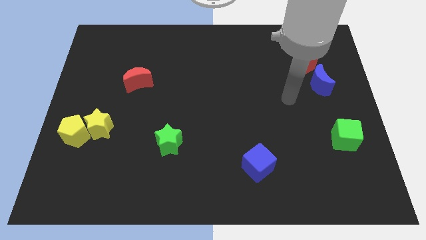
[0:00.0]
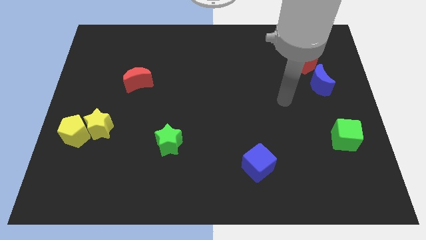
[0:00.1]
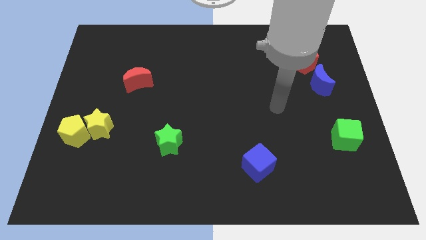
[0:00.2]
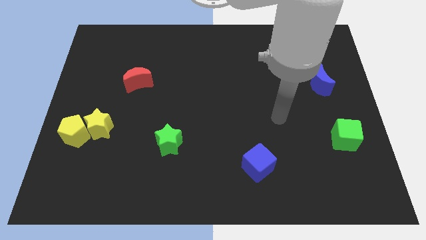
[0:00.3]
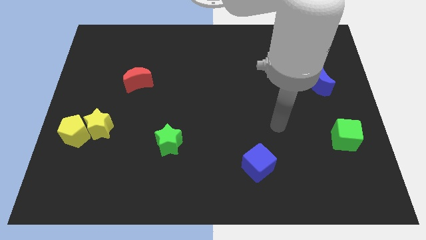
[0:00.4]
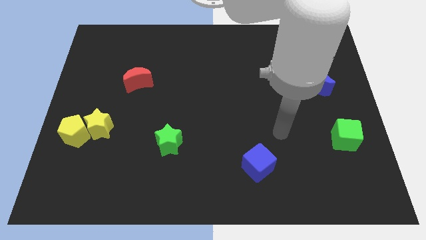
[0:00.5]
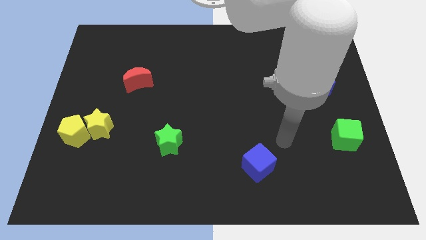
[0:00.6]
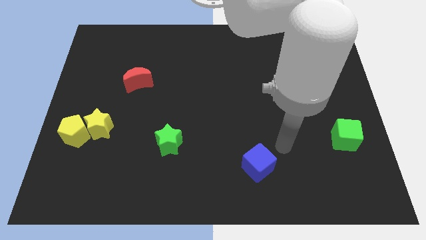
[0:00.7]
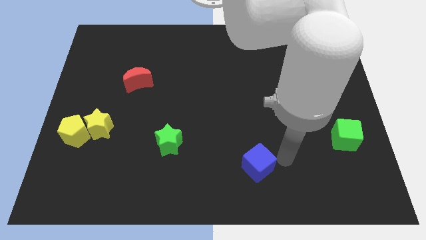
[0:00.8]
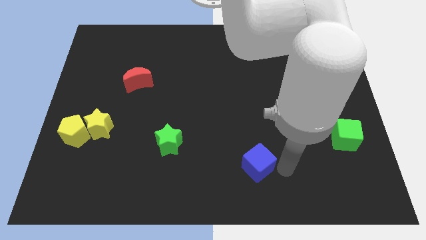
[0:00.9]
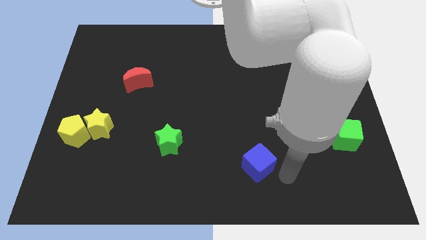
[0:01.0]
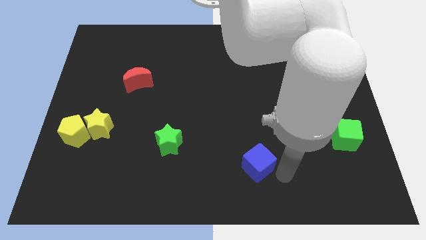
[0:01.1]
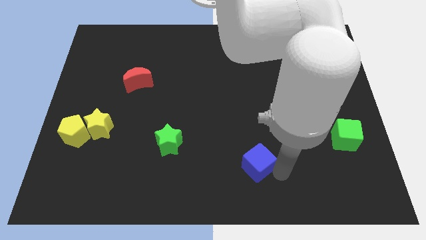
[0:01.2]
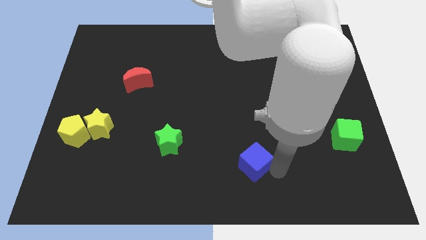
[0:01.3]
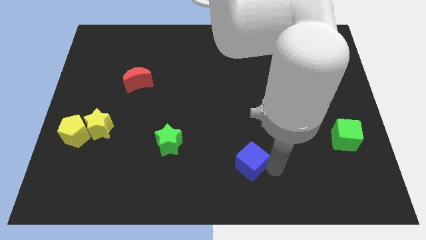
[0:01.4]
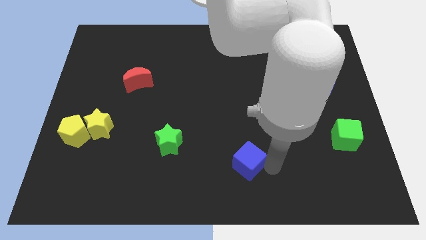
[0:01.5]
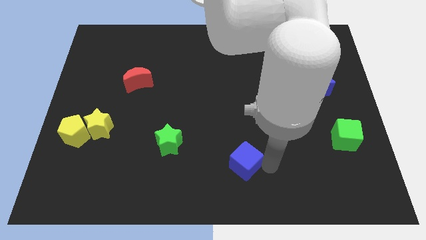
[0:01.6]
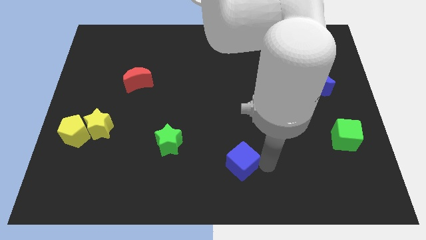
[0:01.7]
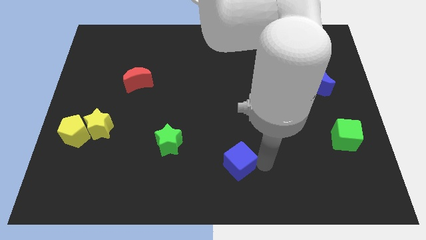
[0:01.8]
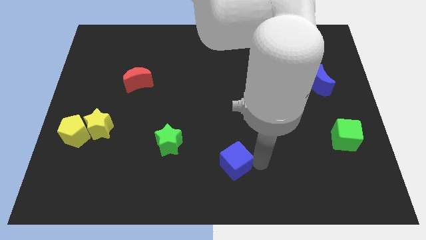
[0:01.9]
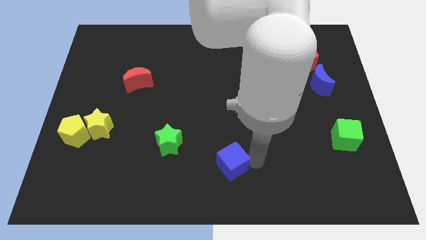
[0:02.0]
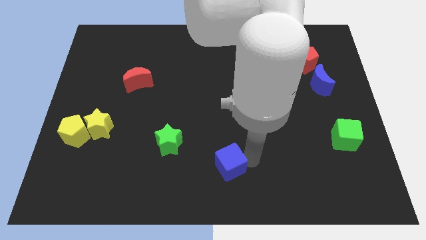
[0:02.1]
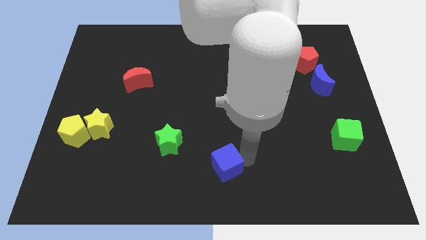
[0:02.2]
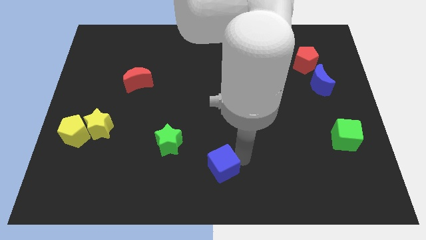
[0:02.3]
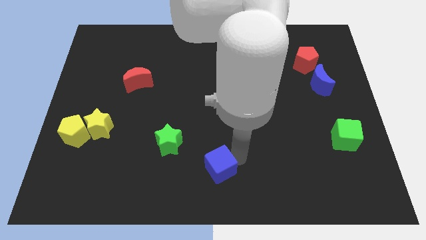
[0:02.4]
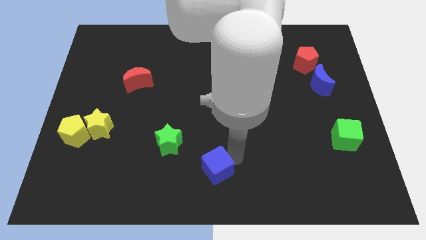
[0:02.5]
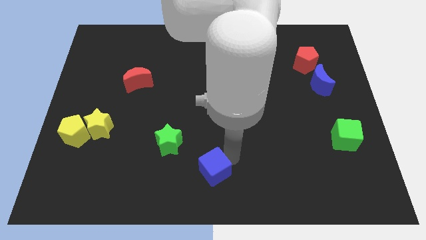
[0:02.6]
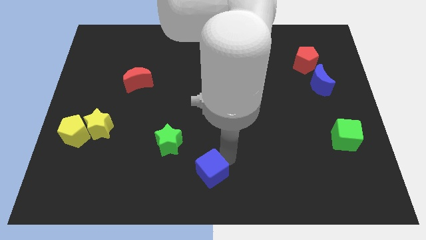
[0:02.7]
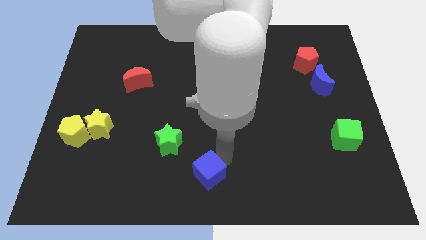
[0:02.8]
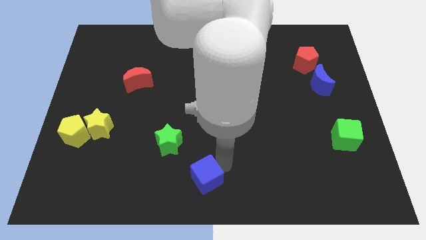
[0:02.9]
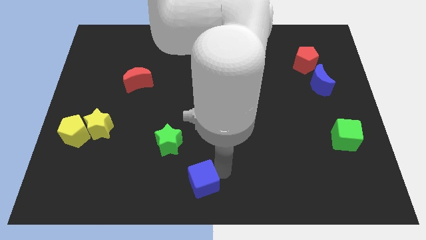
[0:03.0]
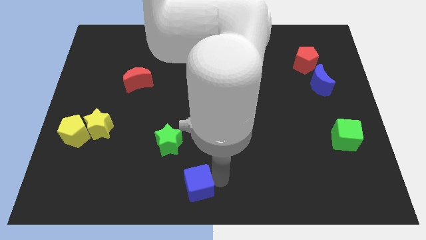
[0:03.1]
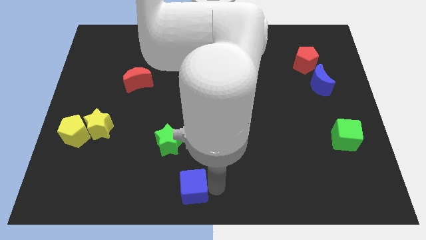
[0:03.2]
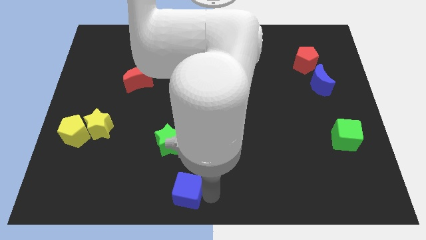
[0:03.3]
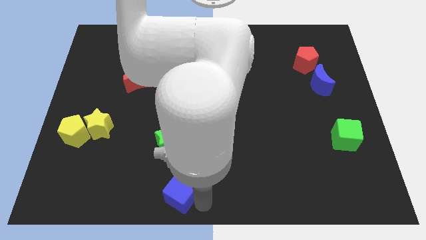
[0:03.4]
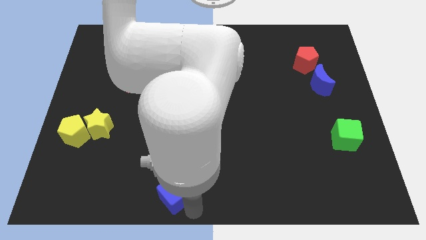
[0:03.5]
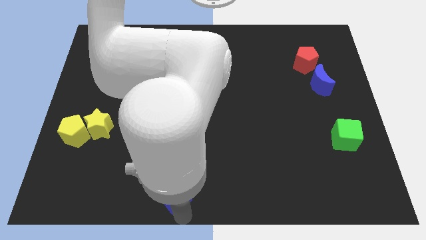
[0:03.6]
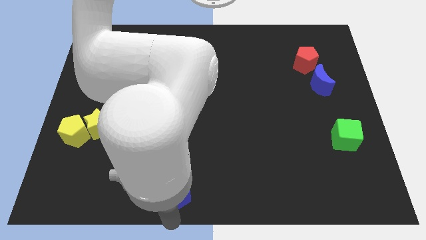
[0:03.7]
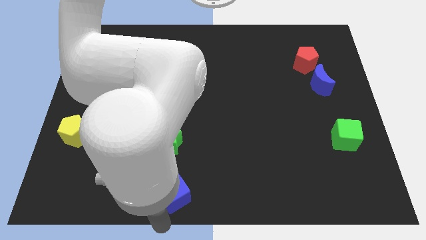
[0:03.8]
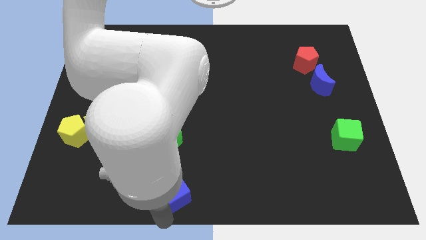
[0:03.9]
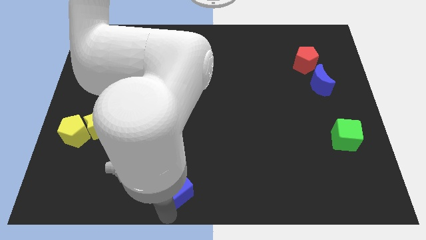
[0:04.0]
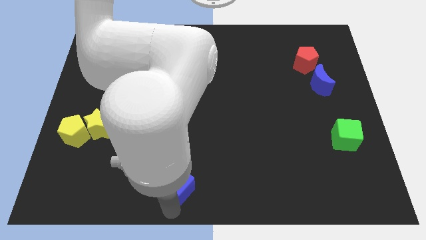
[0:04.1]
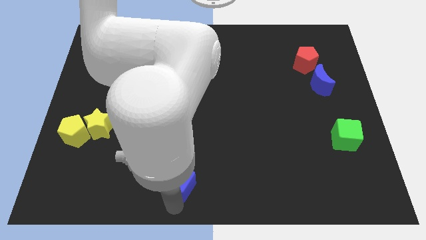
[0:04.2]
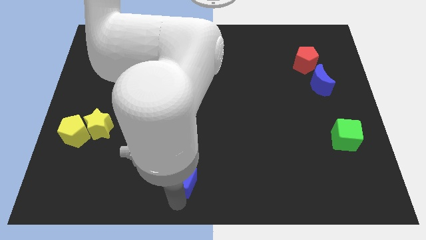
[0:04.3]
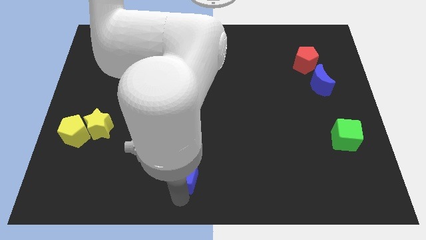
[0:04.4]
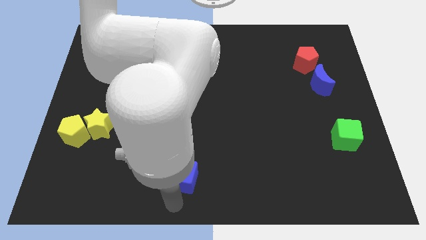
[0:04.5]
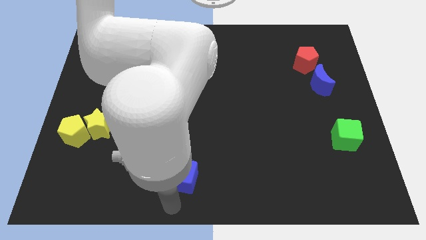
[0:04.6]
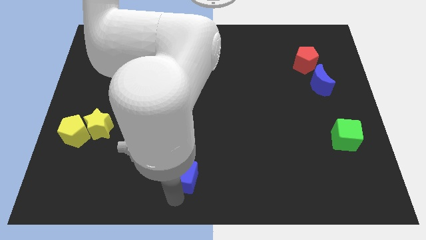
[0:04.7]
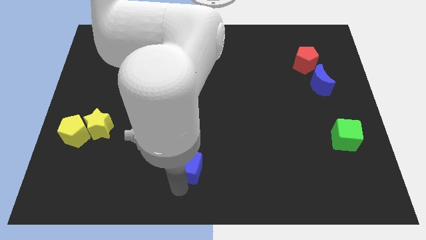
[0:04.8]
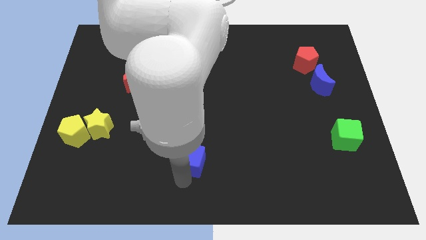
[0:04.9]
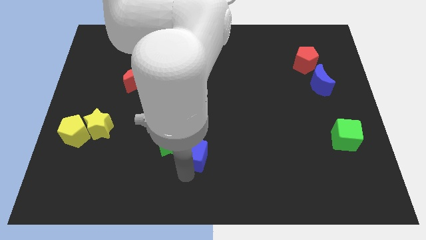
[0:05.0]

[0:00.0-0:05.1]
push the blue cube next to the green star

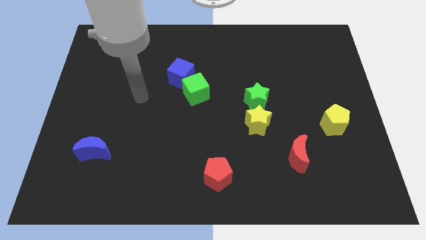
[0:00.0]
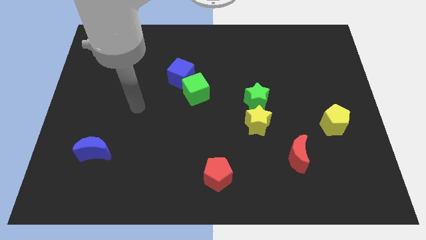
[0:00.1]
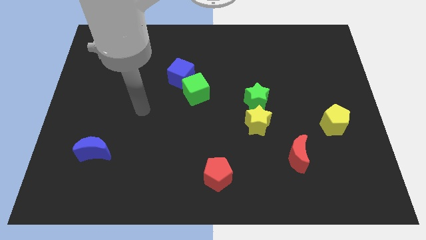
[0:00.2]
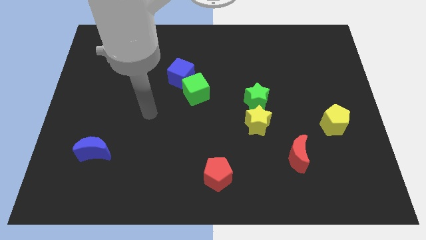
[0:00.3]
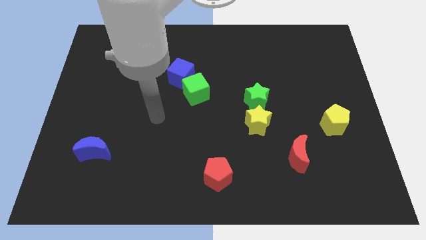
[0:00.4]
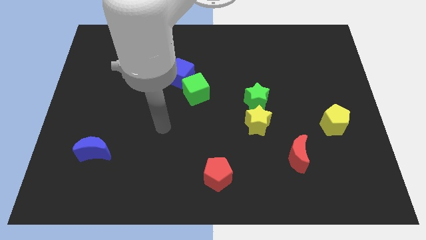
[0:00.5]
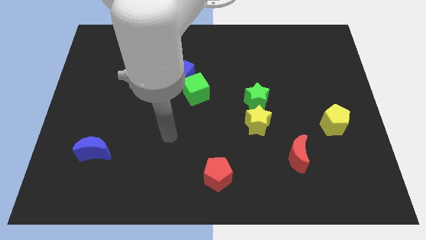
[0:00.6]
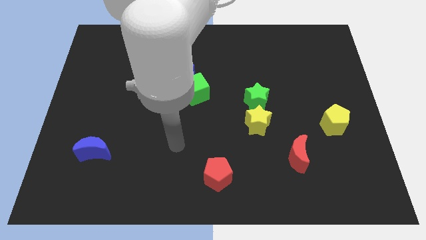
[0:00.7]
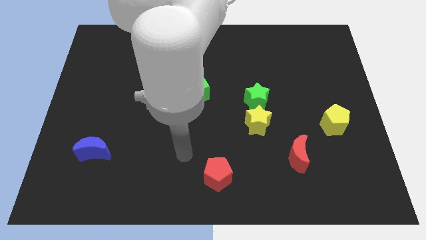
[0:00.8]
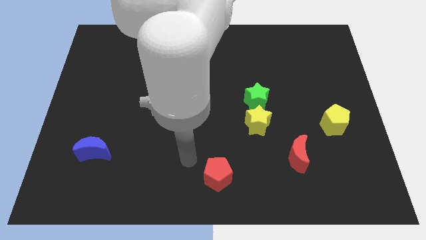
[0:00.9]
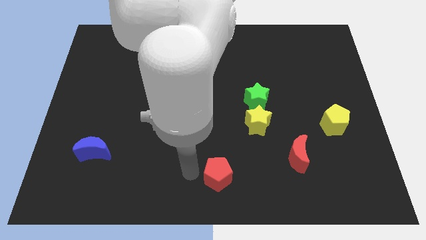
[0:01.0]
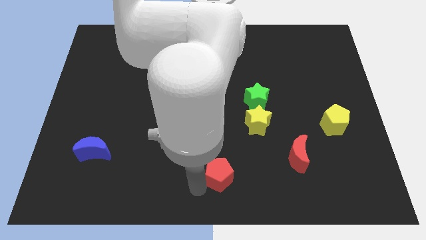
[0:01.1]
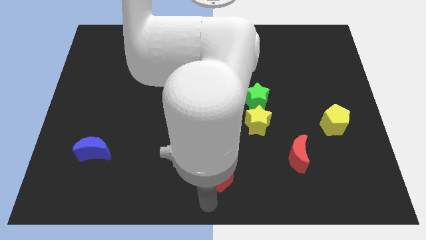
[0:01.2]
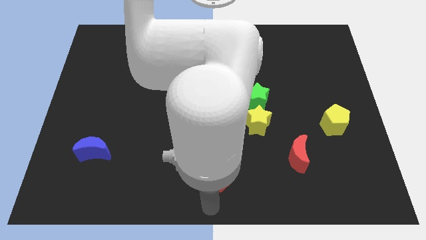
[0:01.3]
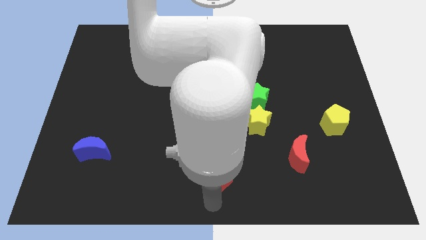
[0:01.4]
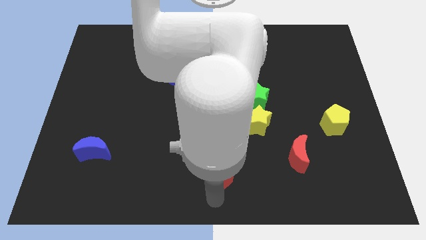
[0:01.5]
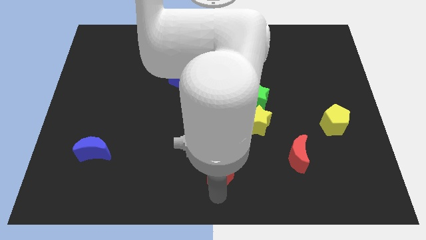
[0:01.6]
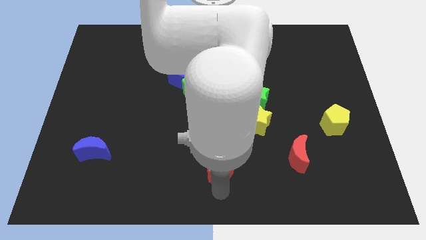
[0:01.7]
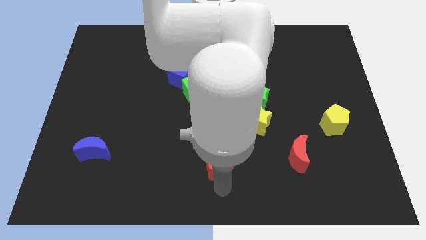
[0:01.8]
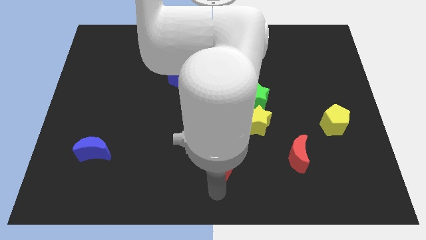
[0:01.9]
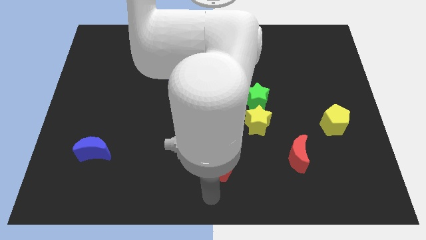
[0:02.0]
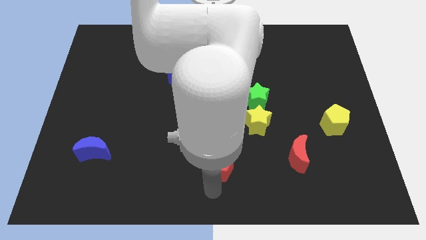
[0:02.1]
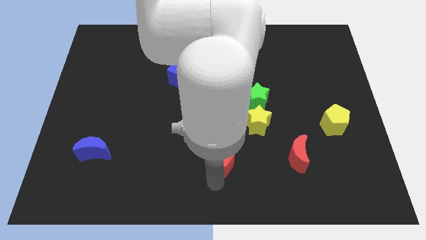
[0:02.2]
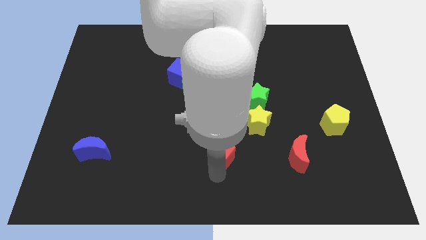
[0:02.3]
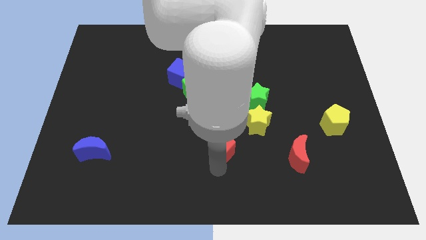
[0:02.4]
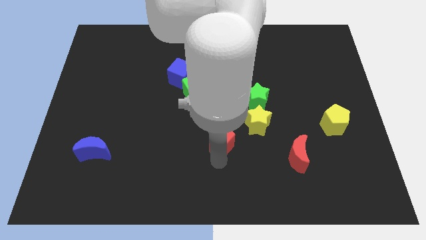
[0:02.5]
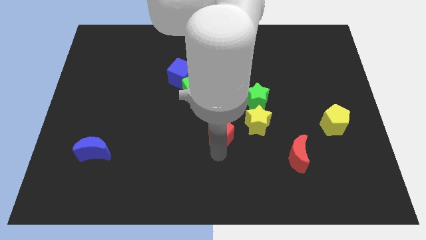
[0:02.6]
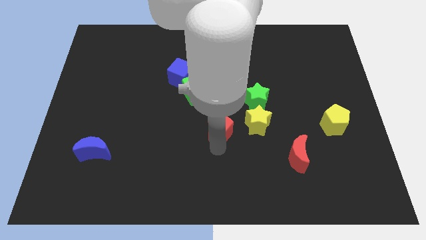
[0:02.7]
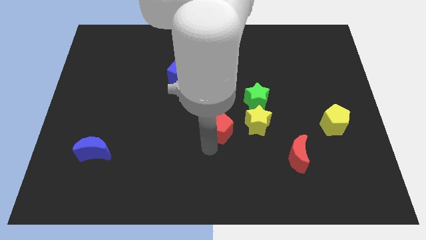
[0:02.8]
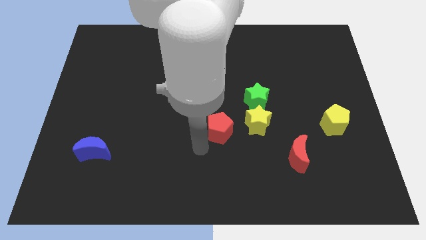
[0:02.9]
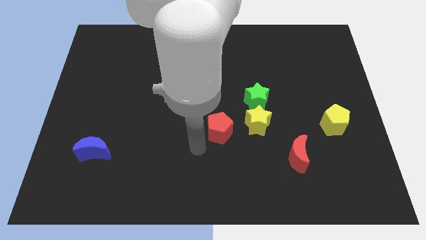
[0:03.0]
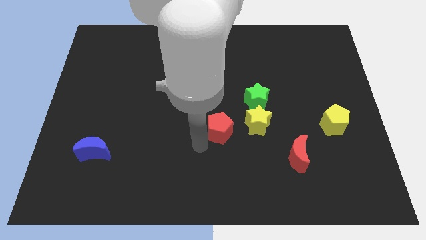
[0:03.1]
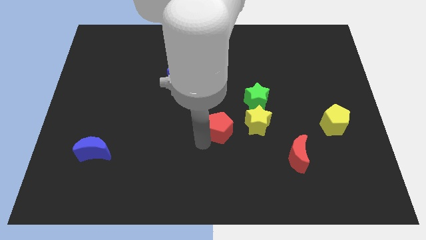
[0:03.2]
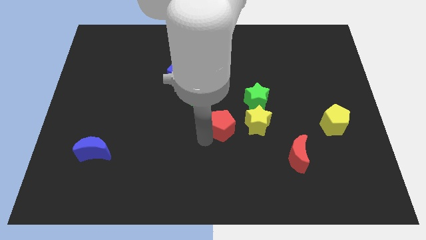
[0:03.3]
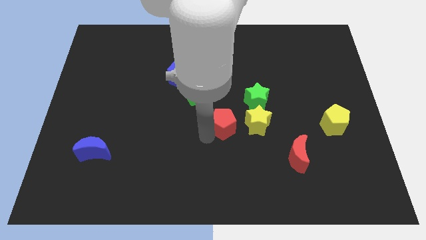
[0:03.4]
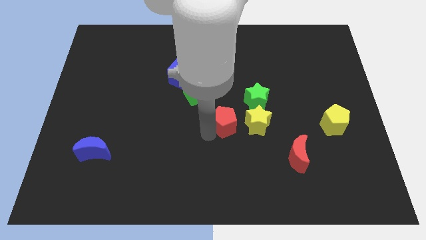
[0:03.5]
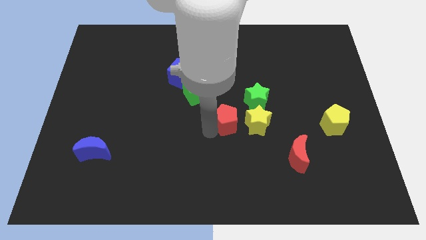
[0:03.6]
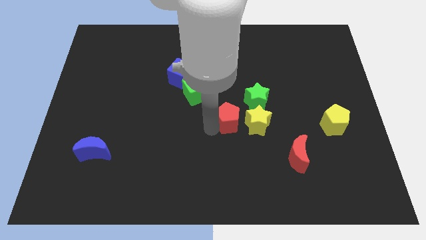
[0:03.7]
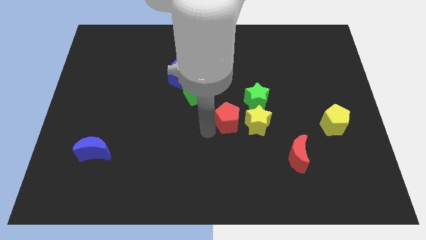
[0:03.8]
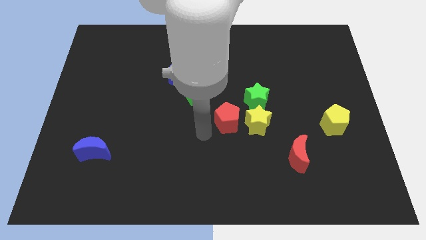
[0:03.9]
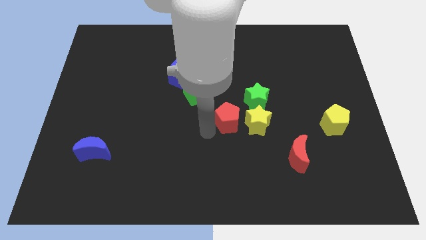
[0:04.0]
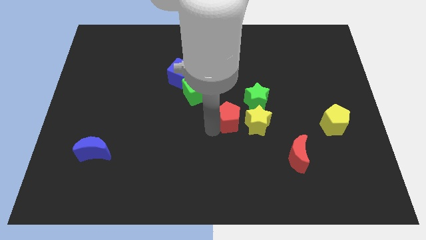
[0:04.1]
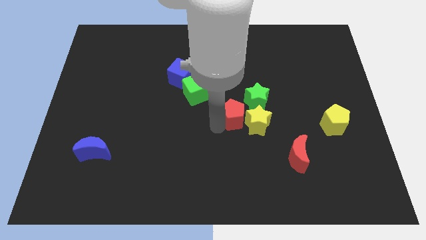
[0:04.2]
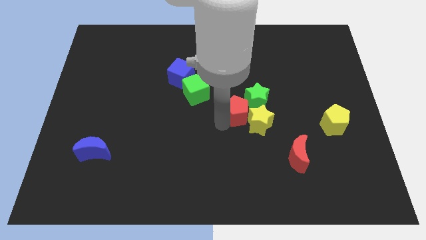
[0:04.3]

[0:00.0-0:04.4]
move the red pentagon to the green star
